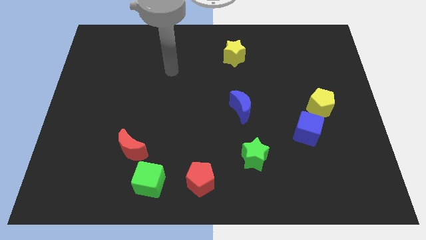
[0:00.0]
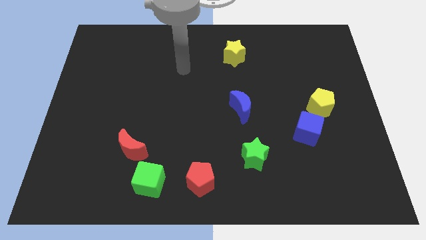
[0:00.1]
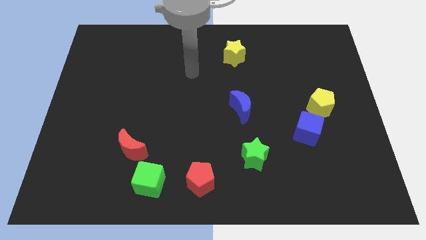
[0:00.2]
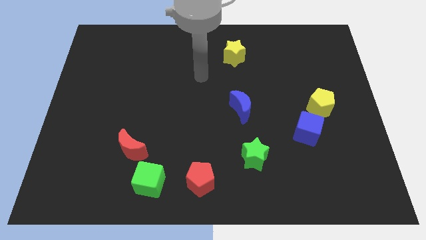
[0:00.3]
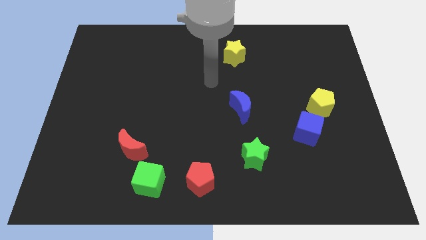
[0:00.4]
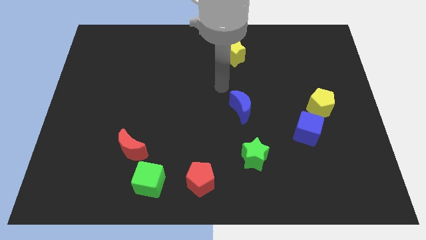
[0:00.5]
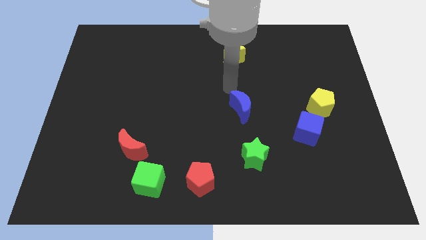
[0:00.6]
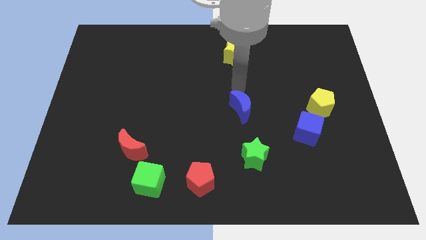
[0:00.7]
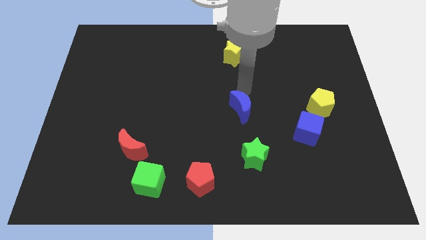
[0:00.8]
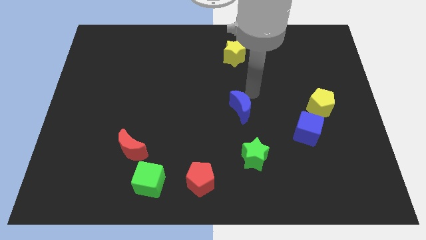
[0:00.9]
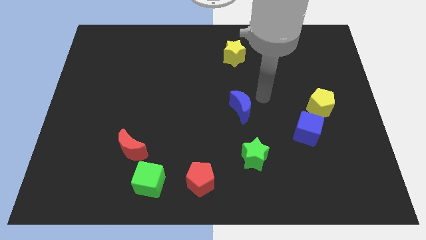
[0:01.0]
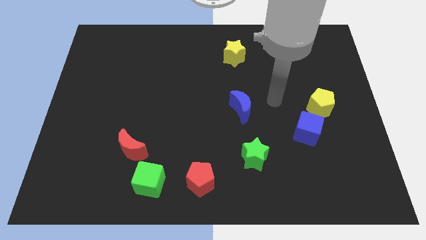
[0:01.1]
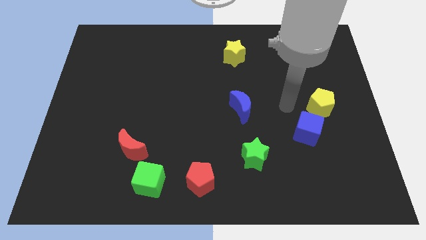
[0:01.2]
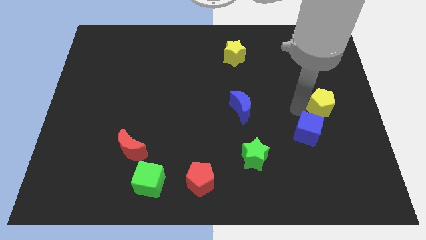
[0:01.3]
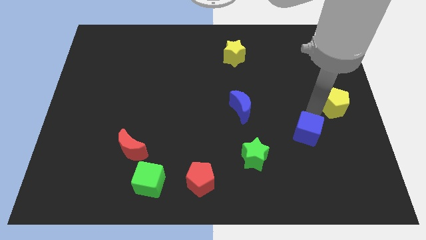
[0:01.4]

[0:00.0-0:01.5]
move the blue cube away from the yellow pentagon

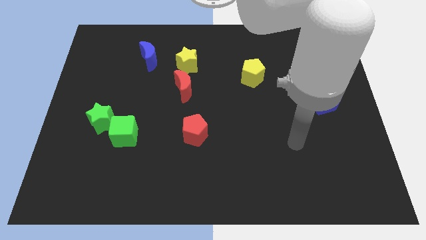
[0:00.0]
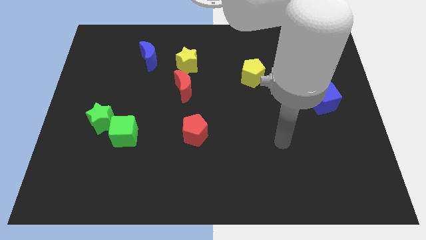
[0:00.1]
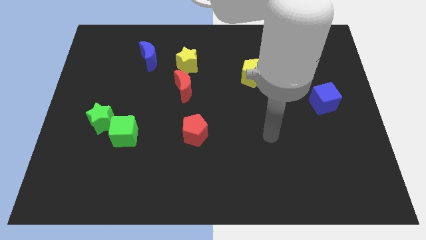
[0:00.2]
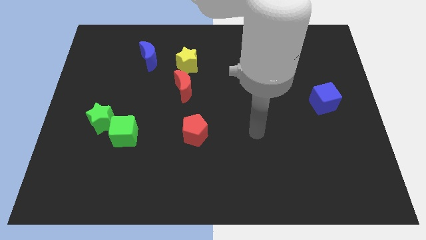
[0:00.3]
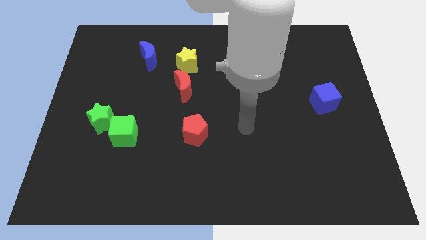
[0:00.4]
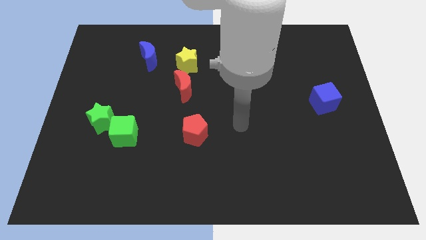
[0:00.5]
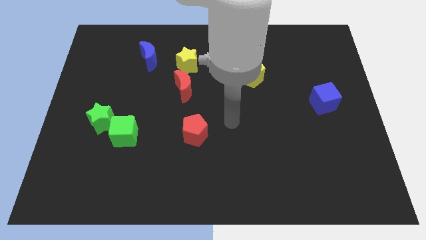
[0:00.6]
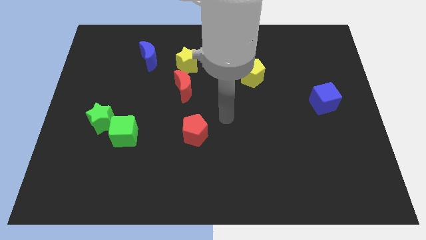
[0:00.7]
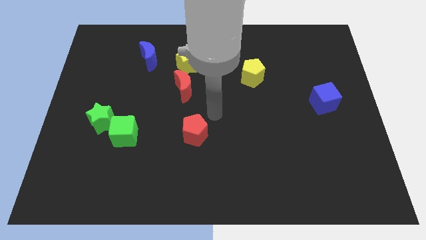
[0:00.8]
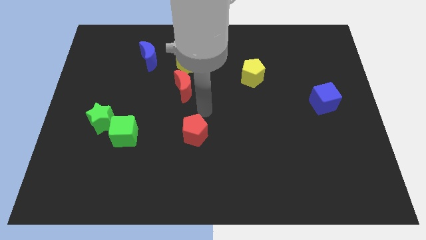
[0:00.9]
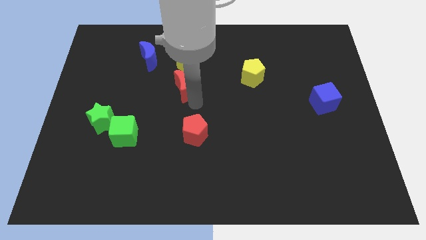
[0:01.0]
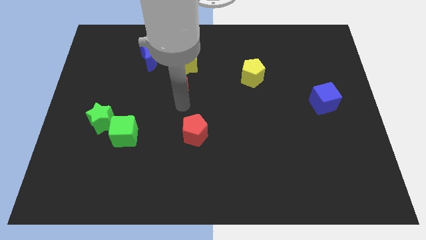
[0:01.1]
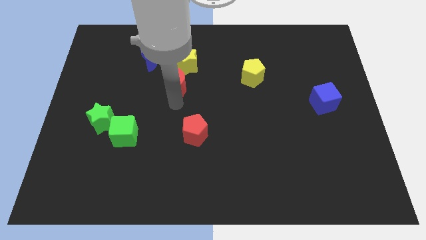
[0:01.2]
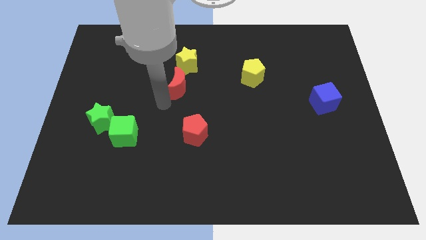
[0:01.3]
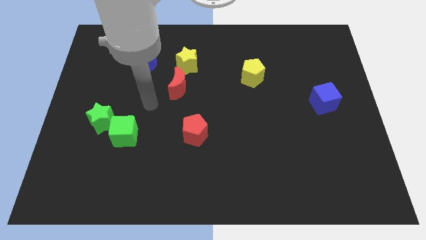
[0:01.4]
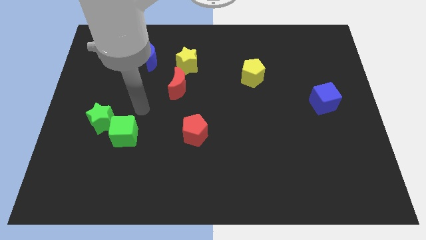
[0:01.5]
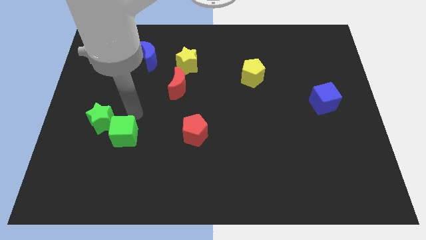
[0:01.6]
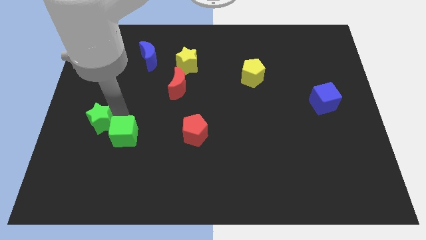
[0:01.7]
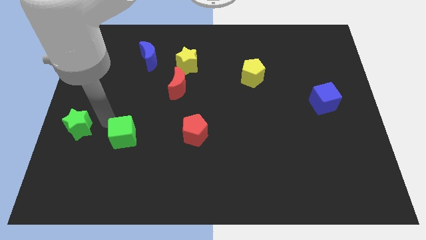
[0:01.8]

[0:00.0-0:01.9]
pull the green cube apart from the green star

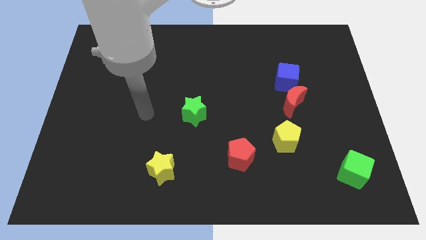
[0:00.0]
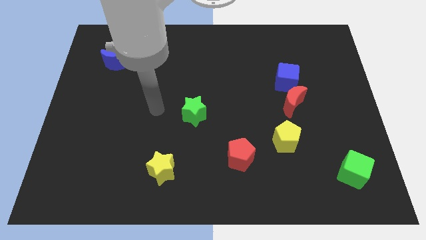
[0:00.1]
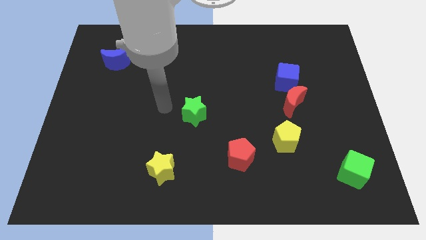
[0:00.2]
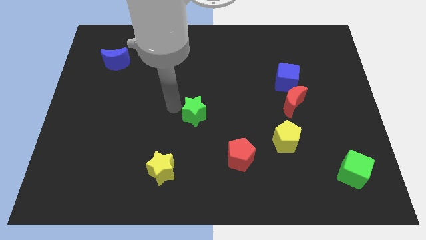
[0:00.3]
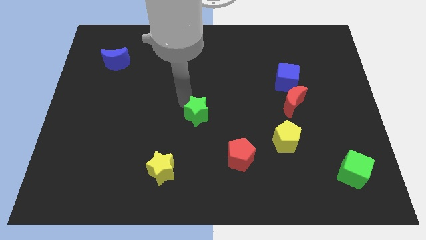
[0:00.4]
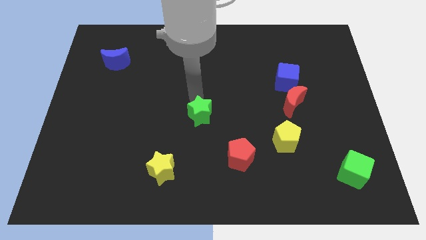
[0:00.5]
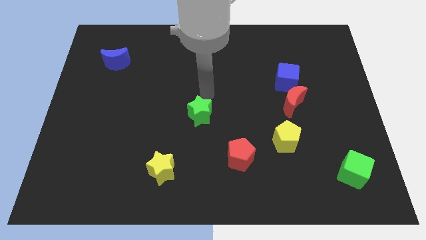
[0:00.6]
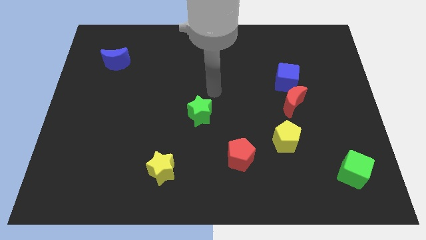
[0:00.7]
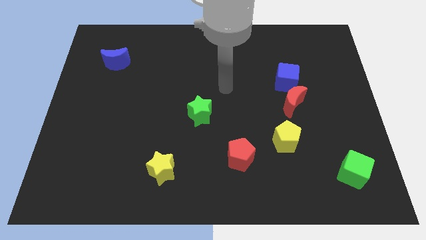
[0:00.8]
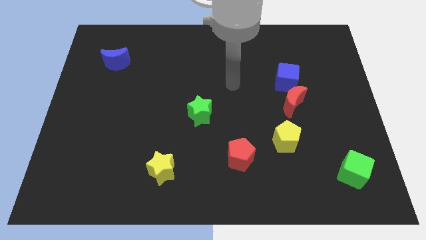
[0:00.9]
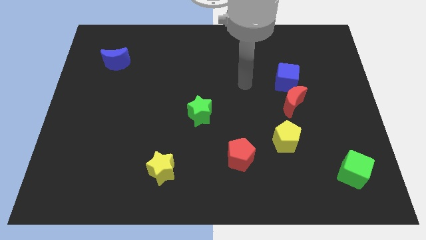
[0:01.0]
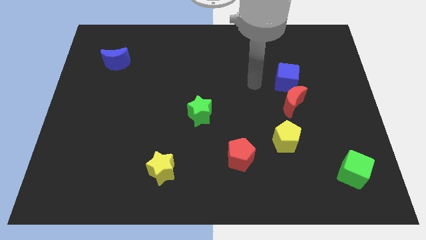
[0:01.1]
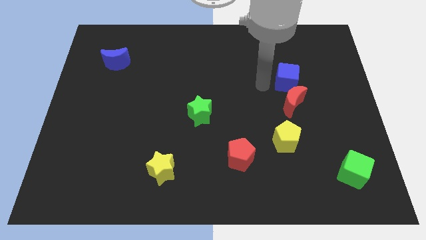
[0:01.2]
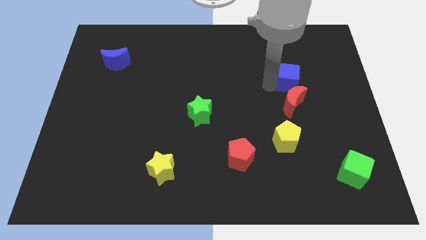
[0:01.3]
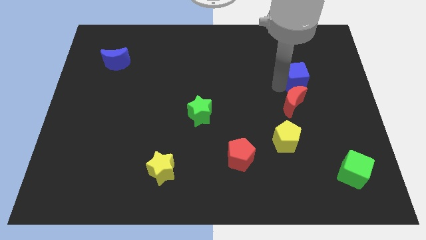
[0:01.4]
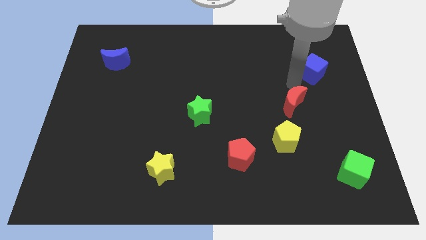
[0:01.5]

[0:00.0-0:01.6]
move the red moon away from the blue cube

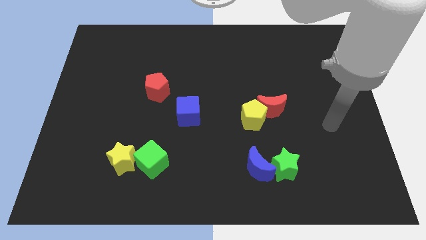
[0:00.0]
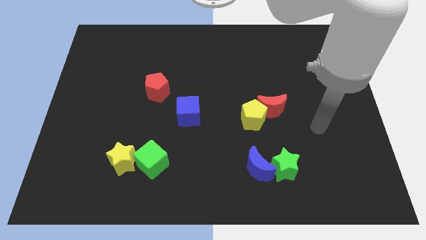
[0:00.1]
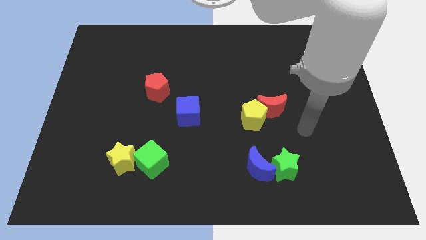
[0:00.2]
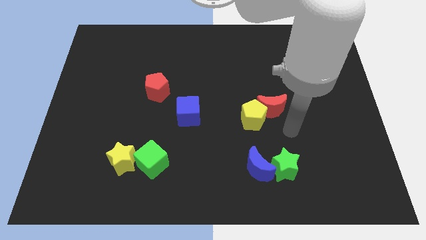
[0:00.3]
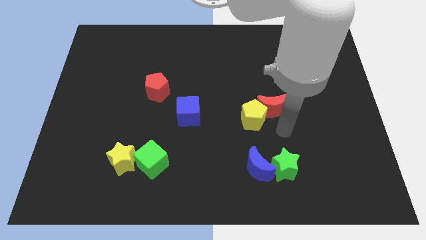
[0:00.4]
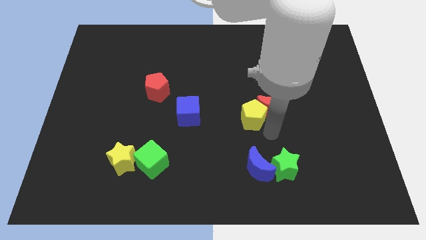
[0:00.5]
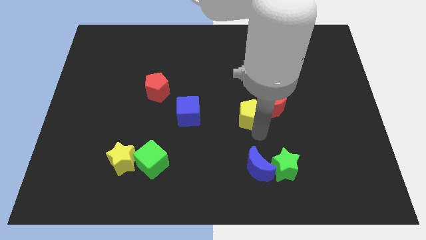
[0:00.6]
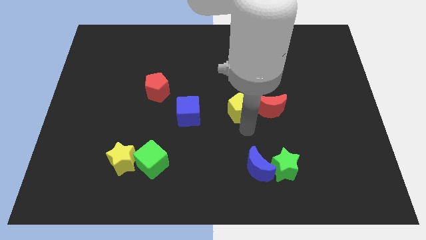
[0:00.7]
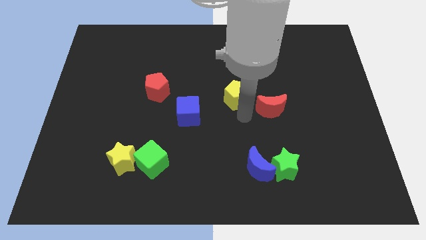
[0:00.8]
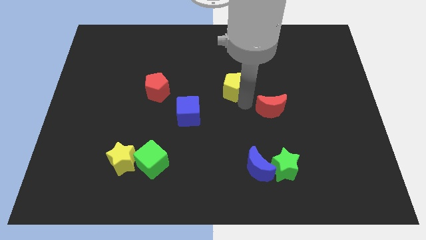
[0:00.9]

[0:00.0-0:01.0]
pull the red moon apart from the yellow pentagon

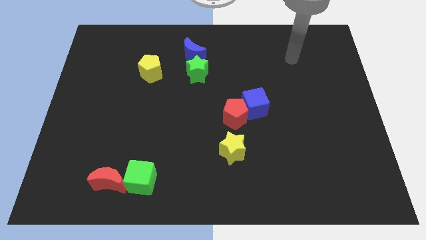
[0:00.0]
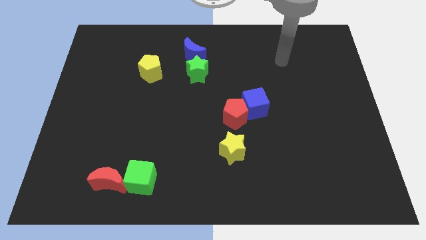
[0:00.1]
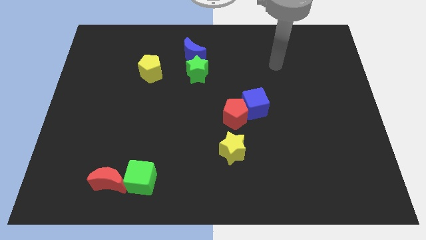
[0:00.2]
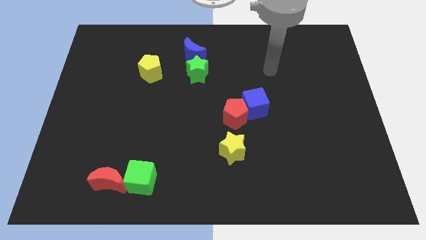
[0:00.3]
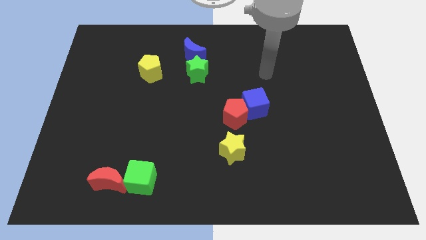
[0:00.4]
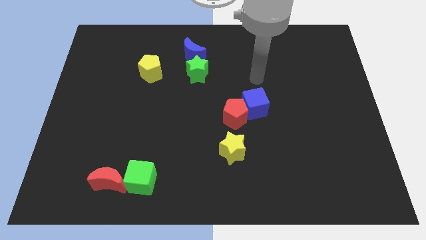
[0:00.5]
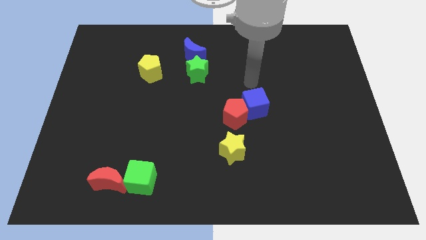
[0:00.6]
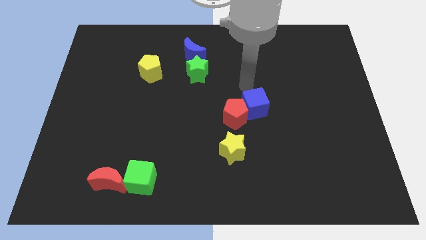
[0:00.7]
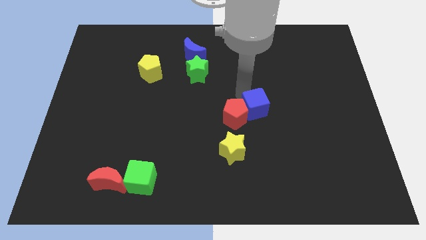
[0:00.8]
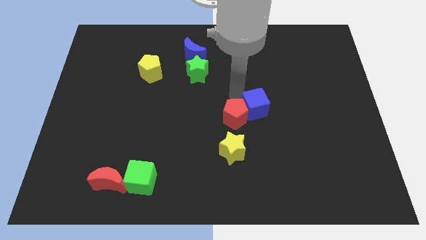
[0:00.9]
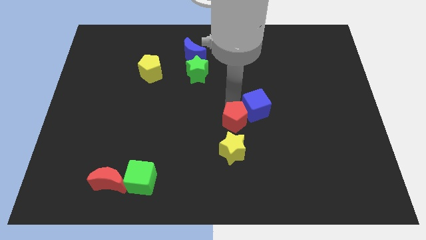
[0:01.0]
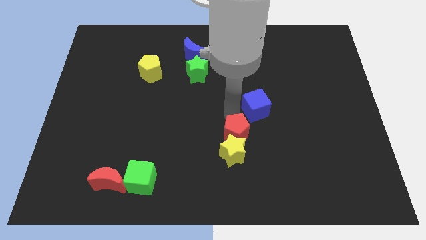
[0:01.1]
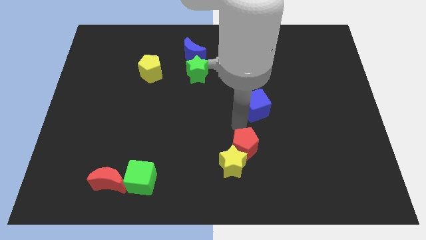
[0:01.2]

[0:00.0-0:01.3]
move the blue cube away from the red pentagon

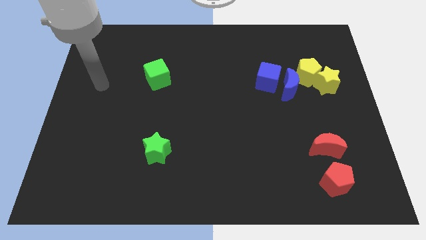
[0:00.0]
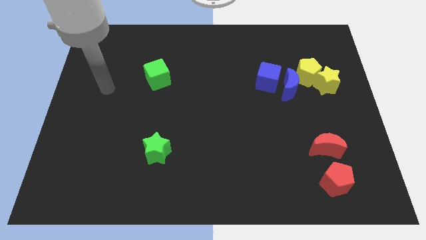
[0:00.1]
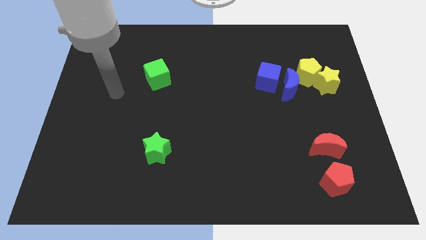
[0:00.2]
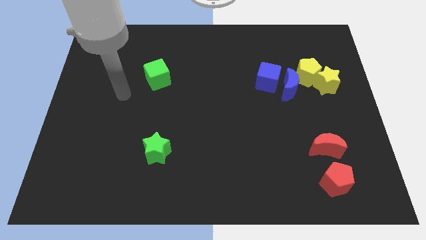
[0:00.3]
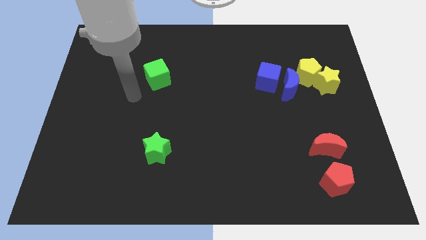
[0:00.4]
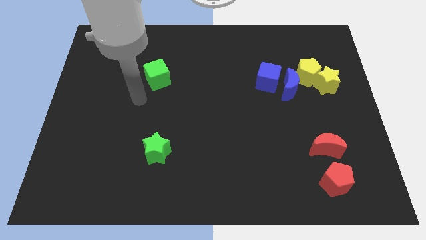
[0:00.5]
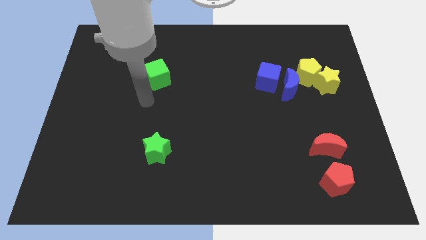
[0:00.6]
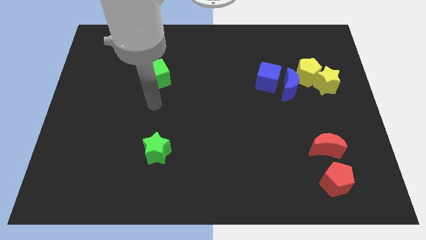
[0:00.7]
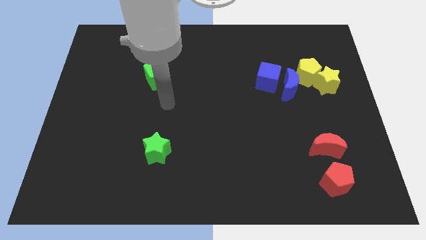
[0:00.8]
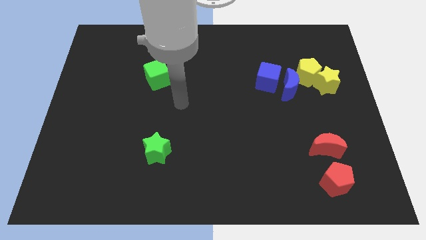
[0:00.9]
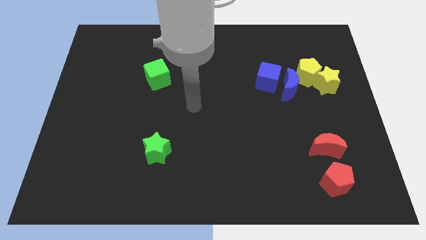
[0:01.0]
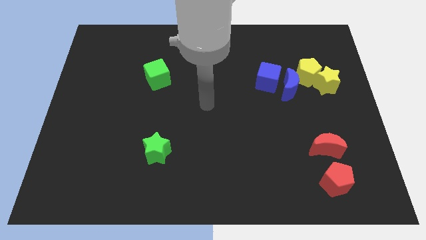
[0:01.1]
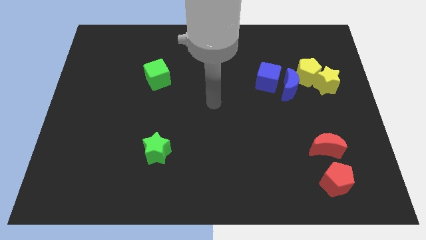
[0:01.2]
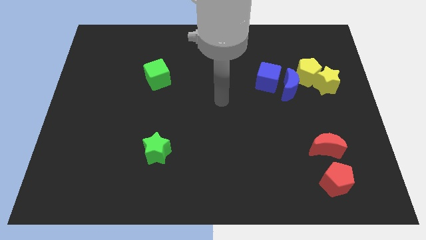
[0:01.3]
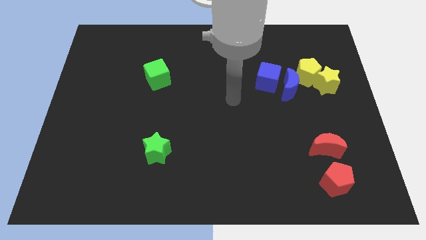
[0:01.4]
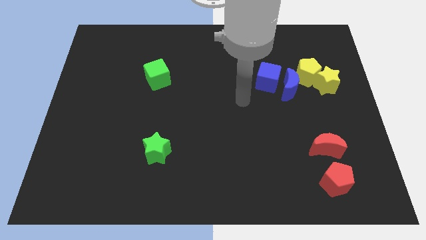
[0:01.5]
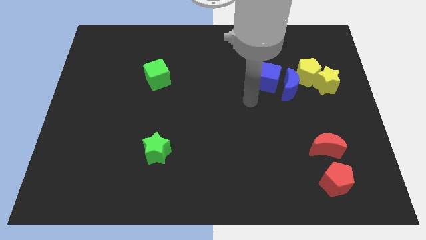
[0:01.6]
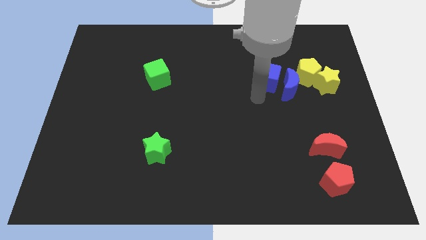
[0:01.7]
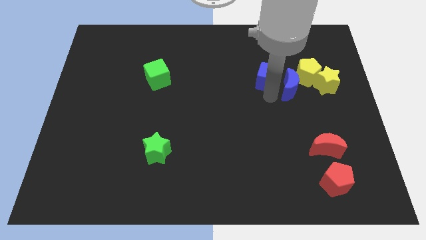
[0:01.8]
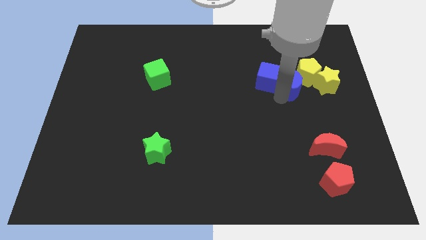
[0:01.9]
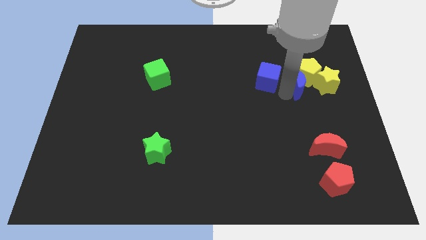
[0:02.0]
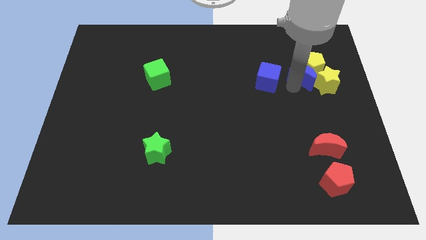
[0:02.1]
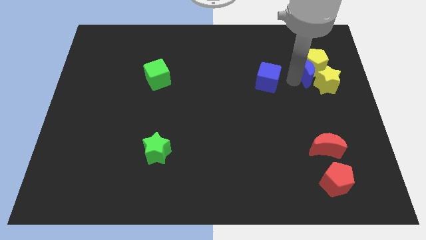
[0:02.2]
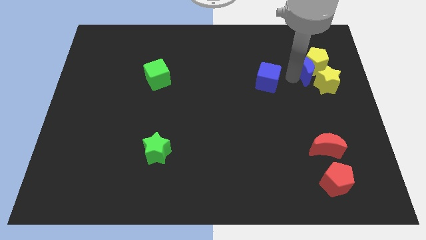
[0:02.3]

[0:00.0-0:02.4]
pull the blue cube apart from the blue moon
